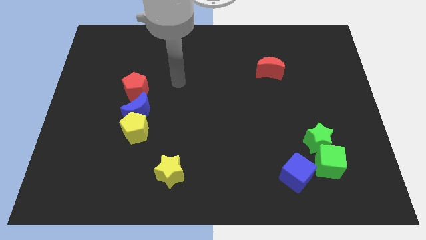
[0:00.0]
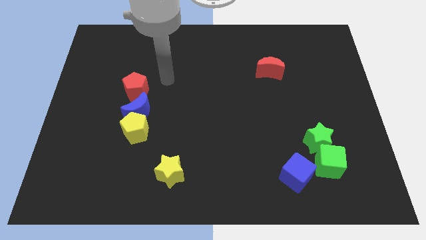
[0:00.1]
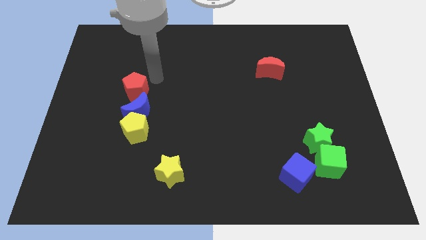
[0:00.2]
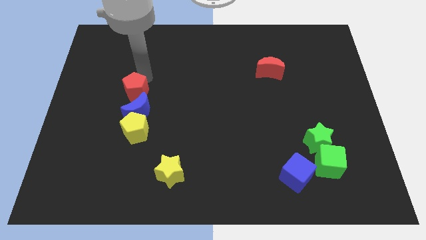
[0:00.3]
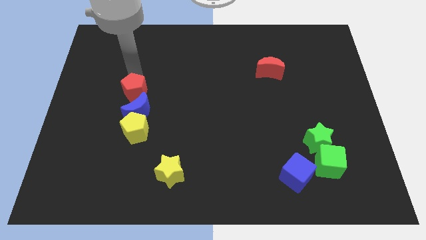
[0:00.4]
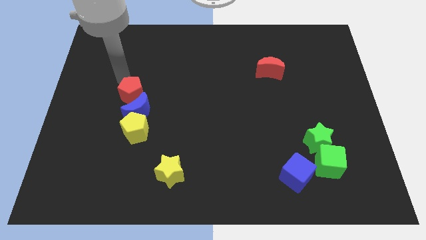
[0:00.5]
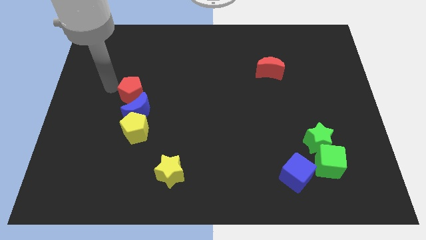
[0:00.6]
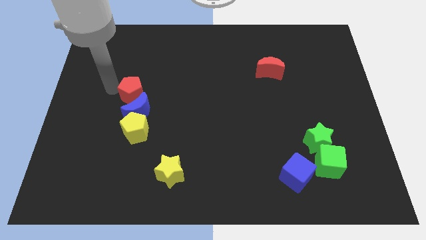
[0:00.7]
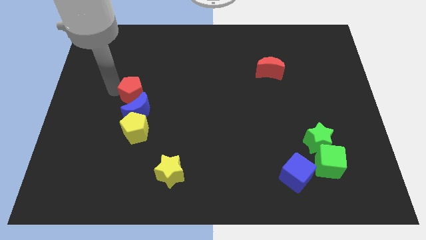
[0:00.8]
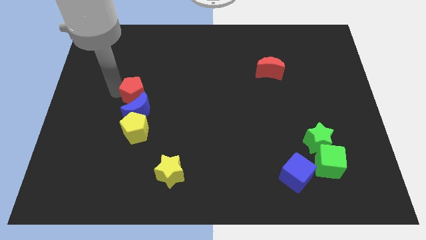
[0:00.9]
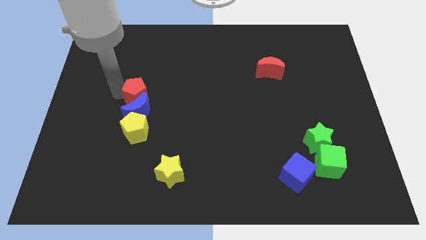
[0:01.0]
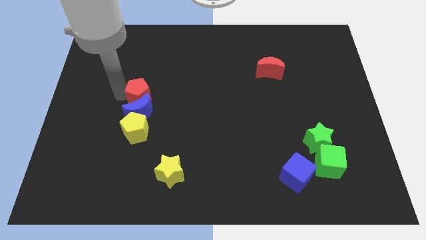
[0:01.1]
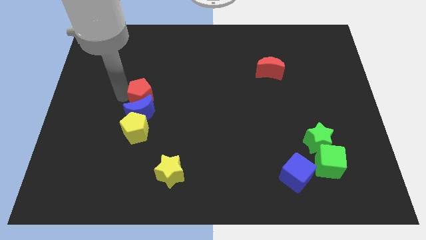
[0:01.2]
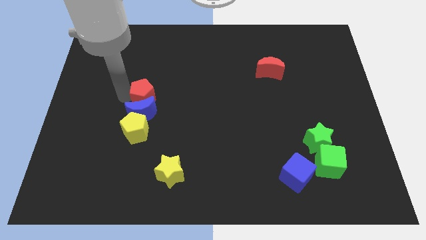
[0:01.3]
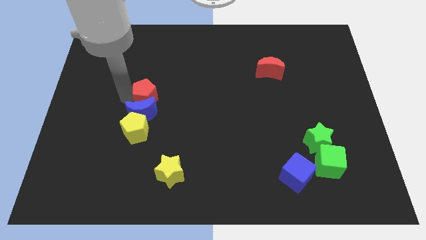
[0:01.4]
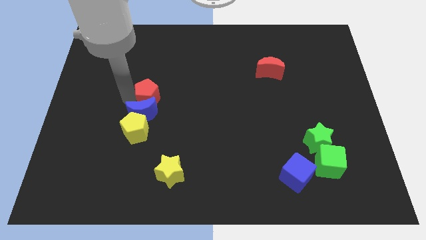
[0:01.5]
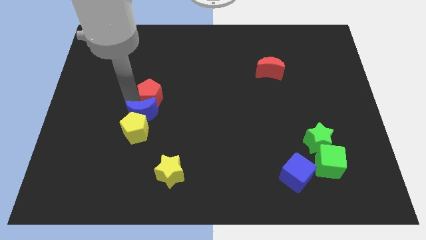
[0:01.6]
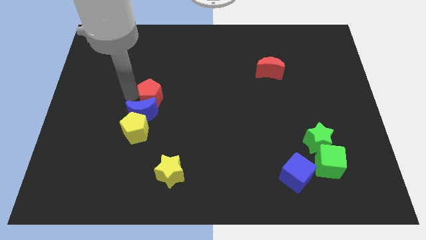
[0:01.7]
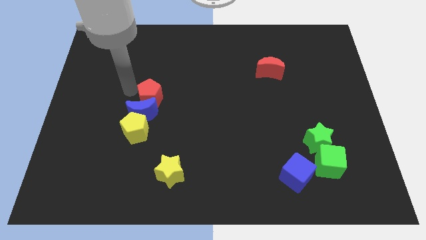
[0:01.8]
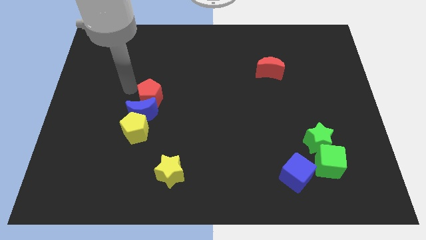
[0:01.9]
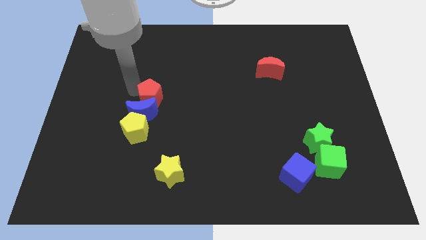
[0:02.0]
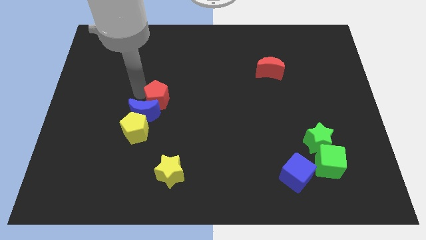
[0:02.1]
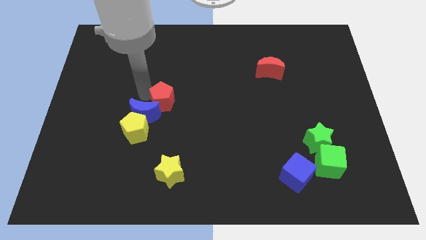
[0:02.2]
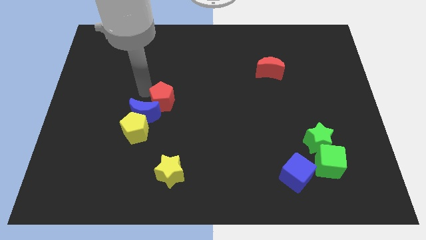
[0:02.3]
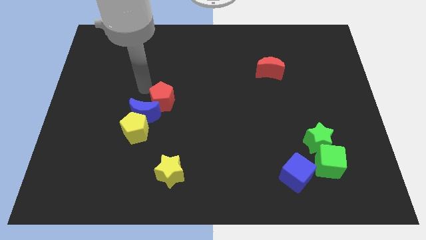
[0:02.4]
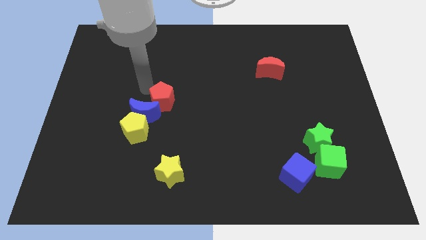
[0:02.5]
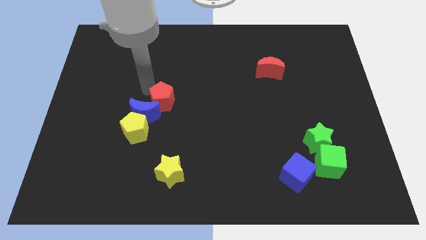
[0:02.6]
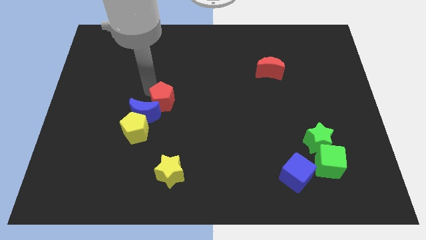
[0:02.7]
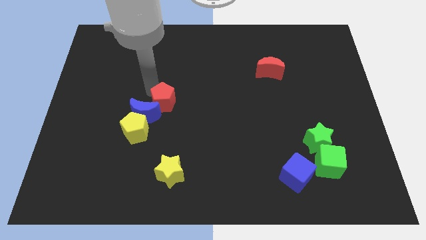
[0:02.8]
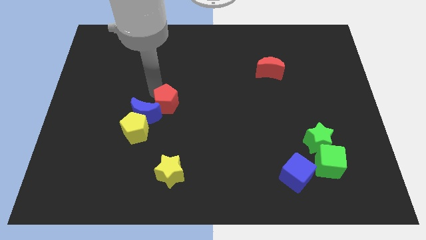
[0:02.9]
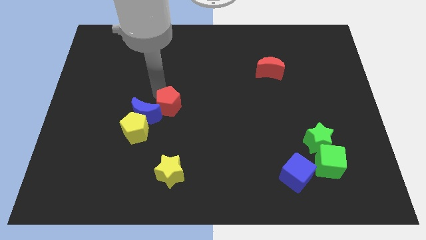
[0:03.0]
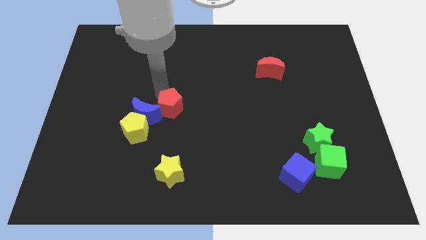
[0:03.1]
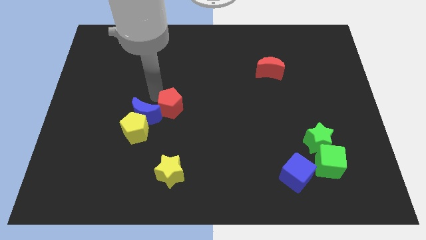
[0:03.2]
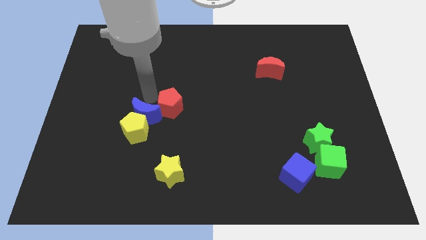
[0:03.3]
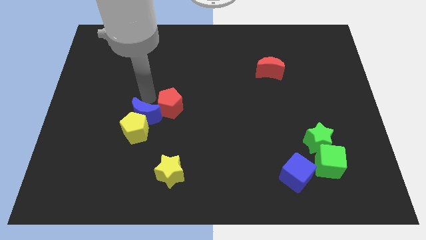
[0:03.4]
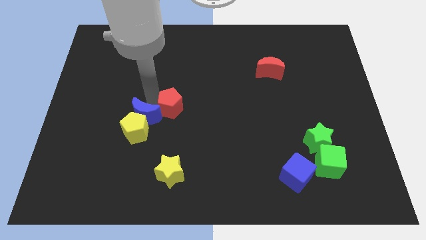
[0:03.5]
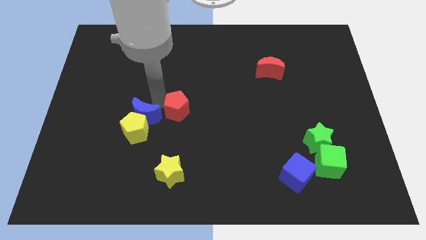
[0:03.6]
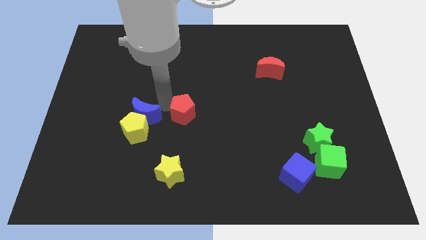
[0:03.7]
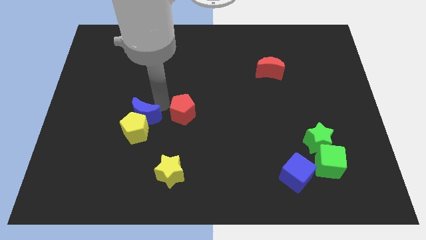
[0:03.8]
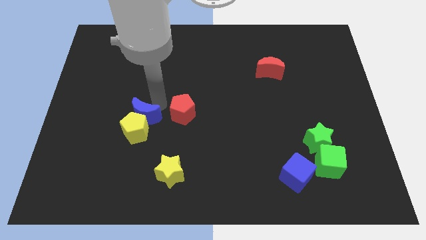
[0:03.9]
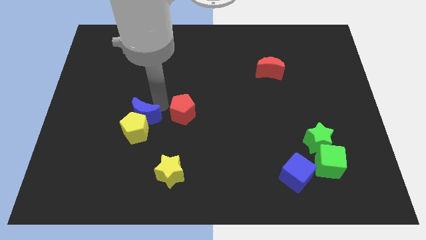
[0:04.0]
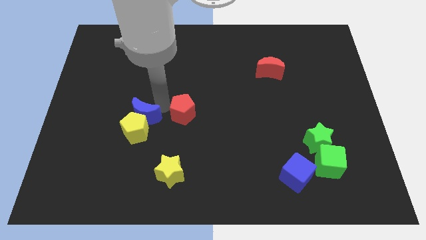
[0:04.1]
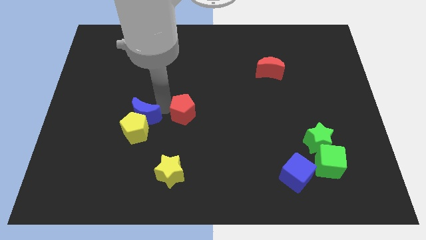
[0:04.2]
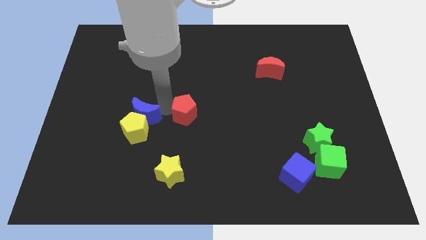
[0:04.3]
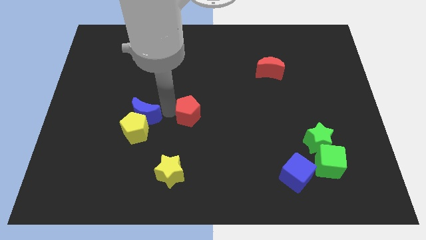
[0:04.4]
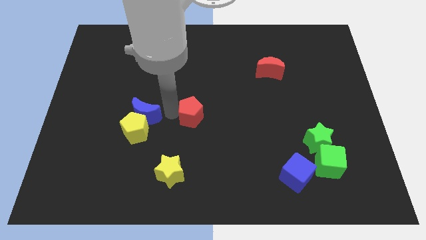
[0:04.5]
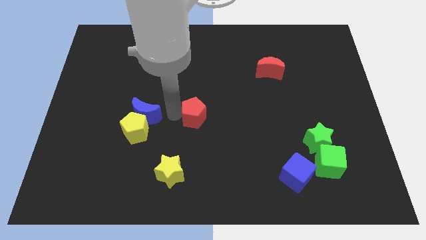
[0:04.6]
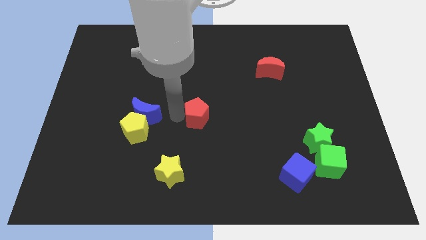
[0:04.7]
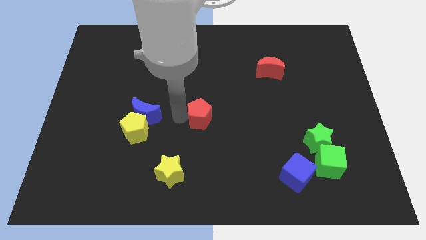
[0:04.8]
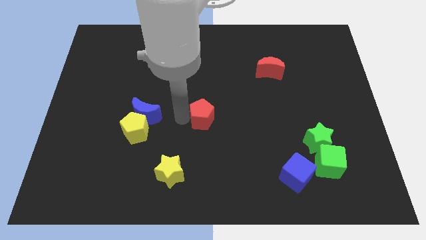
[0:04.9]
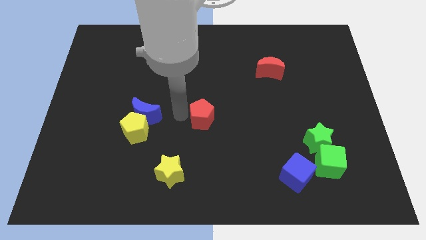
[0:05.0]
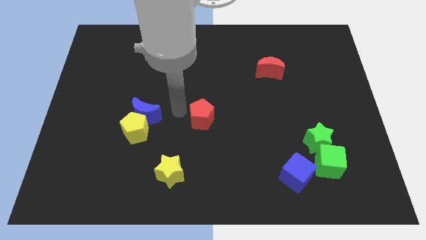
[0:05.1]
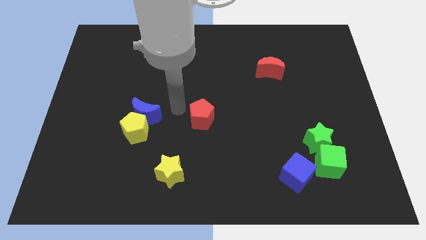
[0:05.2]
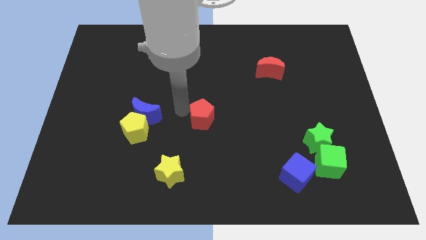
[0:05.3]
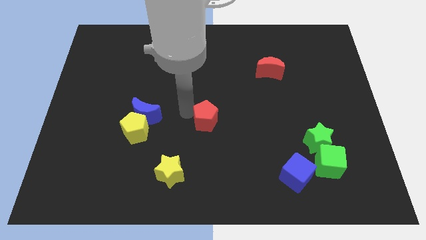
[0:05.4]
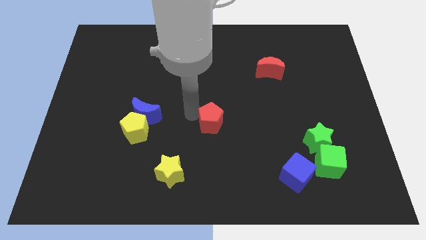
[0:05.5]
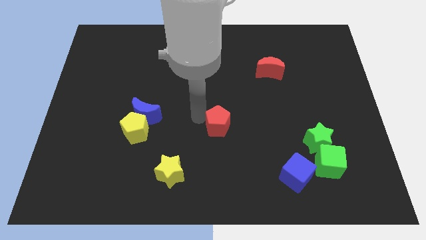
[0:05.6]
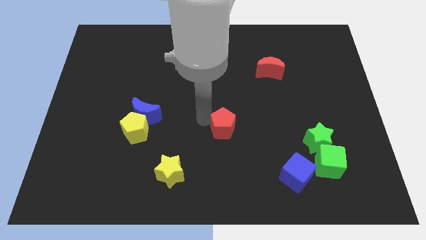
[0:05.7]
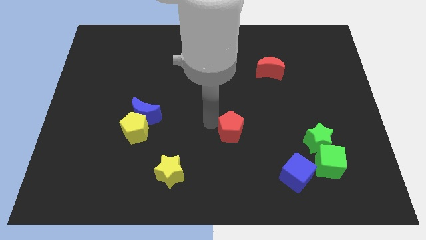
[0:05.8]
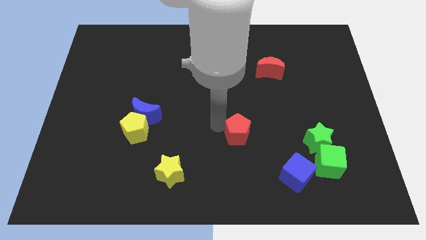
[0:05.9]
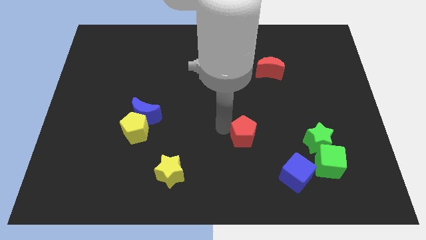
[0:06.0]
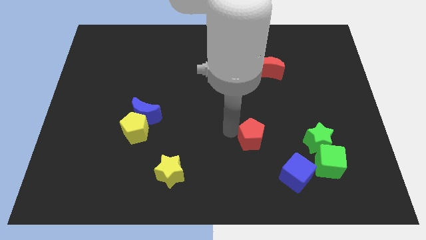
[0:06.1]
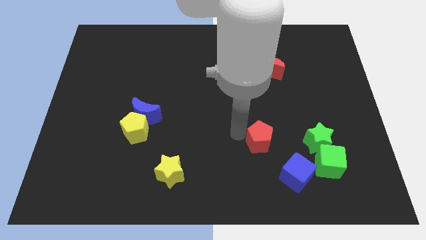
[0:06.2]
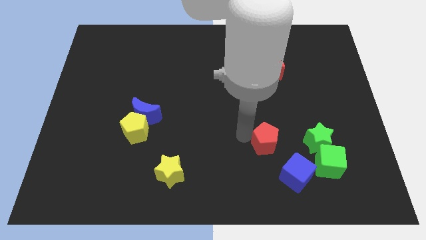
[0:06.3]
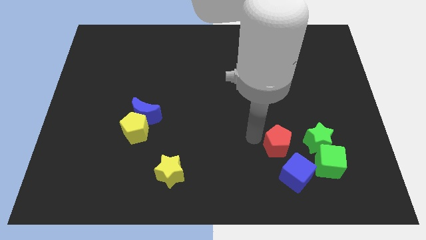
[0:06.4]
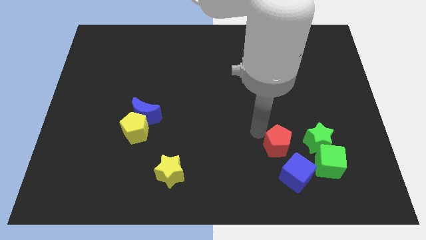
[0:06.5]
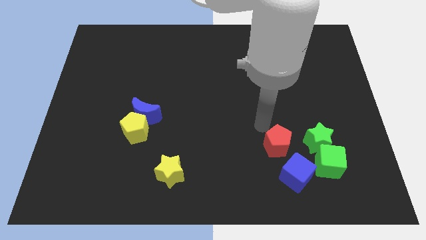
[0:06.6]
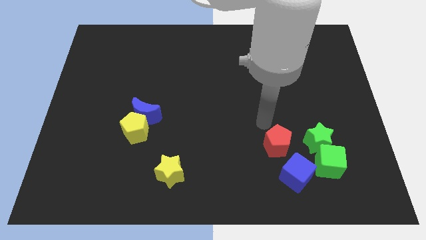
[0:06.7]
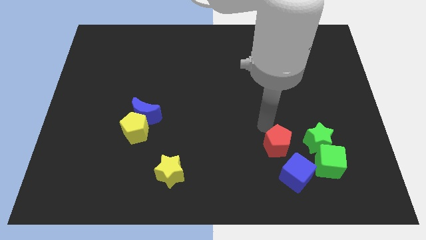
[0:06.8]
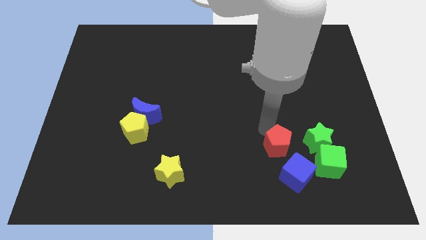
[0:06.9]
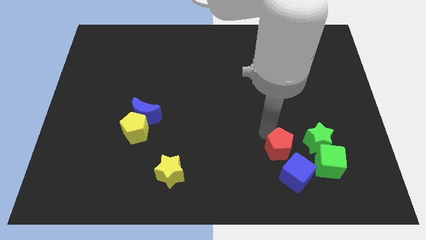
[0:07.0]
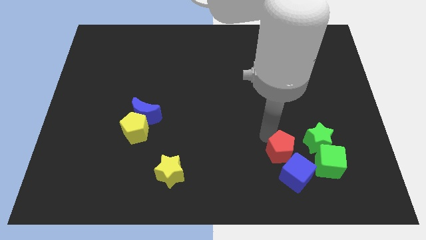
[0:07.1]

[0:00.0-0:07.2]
slide the red pentagon close to the blue cube

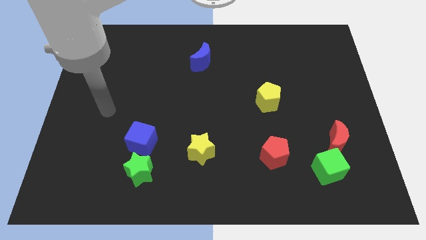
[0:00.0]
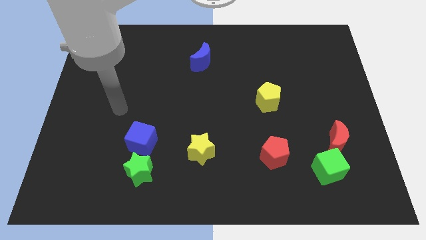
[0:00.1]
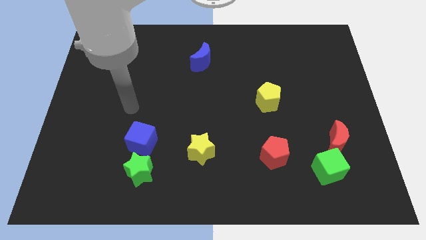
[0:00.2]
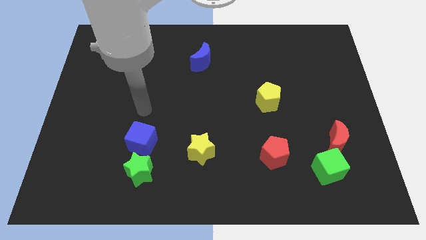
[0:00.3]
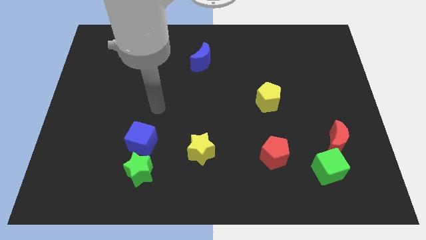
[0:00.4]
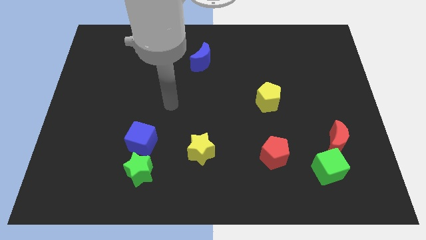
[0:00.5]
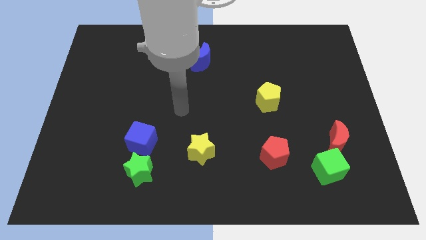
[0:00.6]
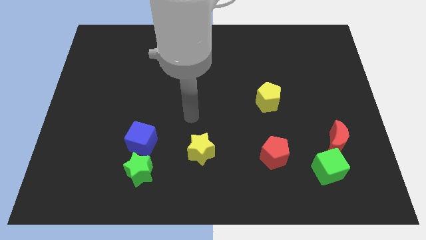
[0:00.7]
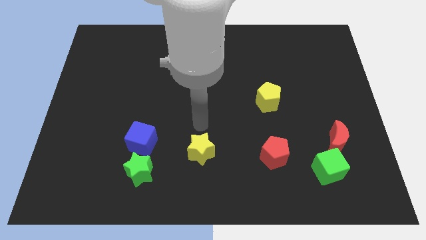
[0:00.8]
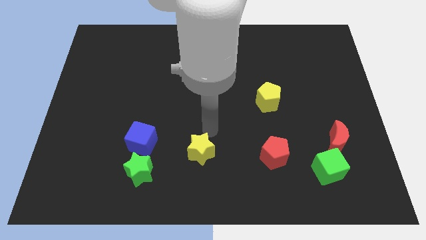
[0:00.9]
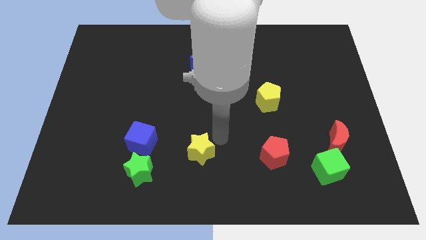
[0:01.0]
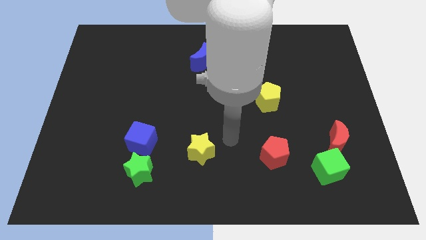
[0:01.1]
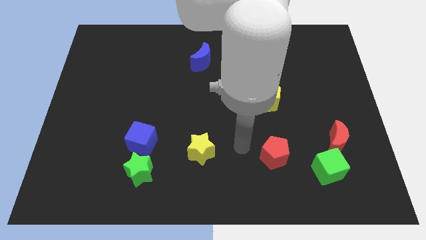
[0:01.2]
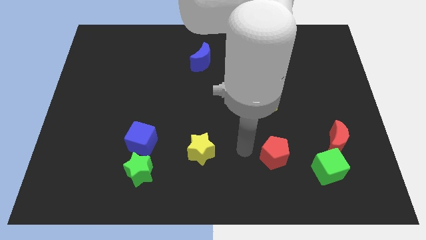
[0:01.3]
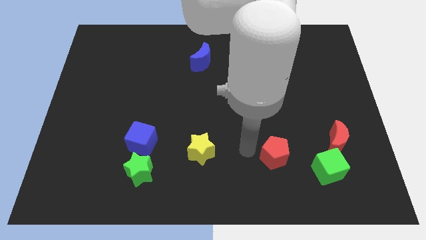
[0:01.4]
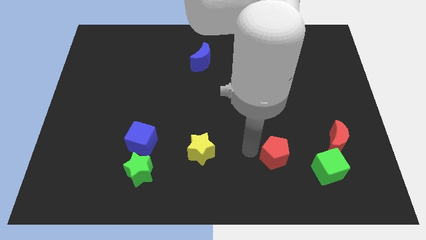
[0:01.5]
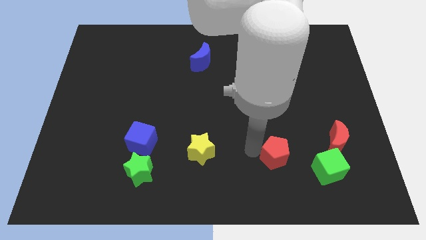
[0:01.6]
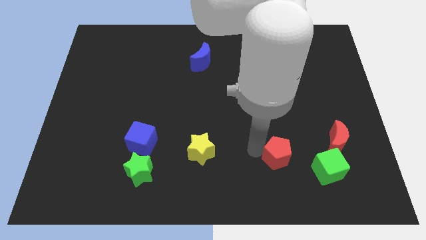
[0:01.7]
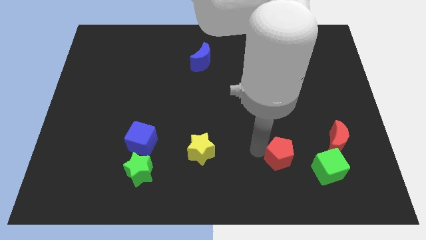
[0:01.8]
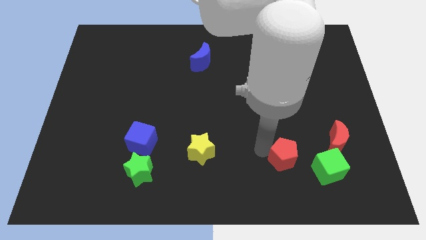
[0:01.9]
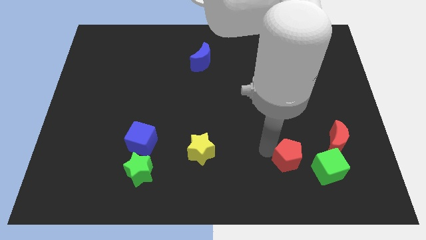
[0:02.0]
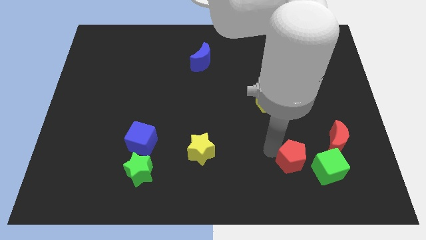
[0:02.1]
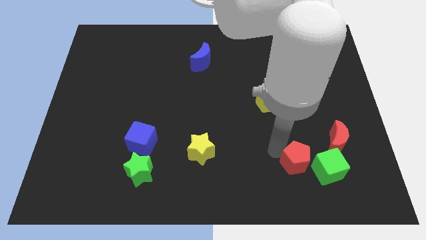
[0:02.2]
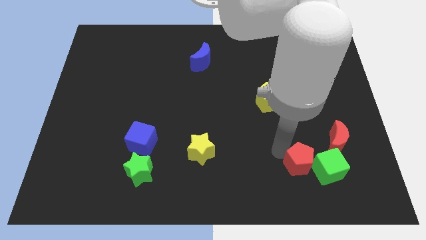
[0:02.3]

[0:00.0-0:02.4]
put the red pentagon towards the green cube
